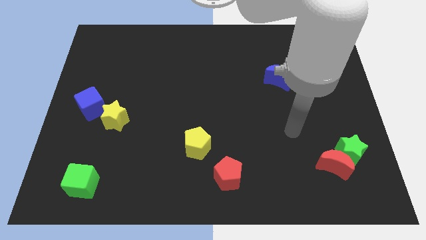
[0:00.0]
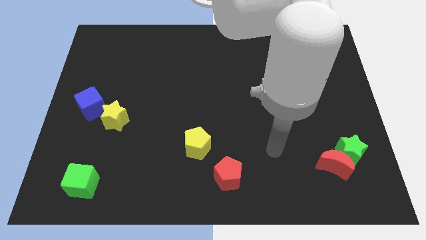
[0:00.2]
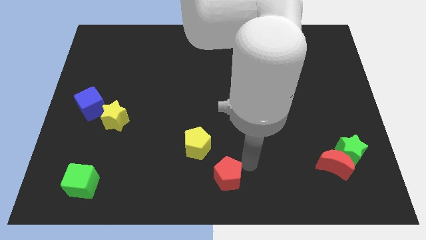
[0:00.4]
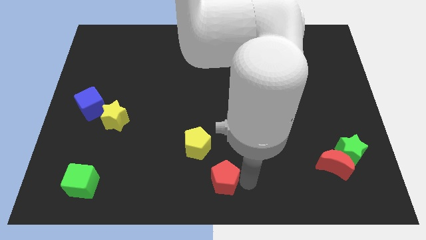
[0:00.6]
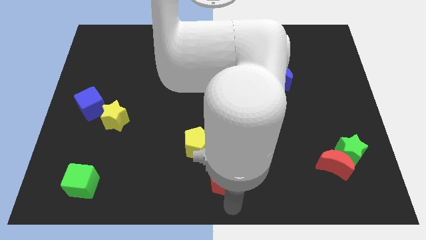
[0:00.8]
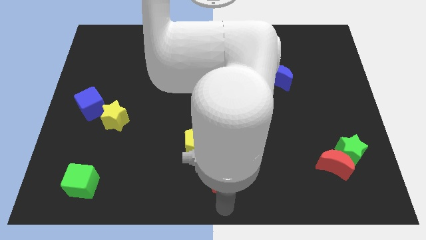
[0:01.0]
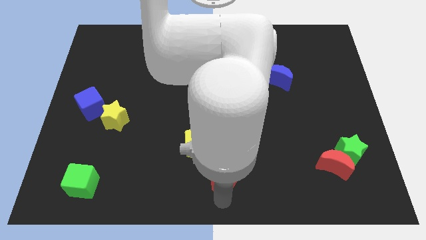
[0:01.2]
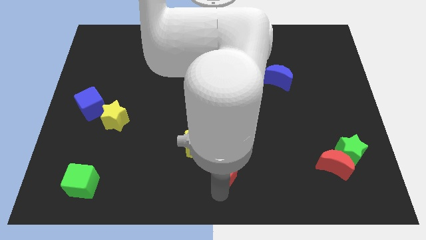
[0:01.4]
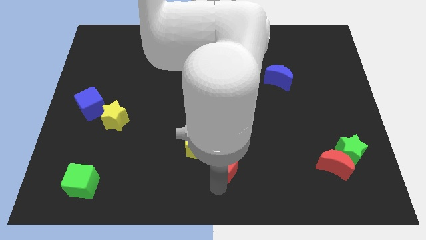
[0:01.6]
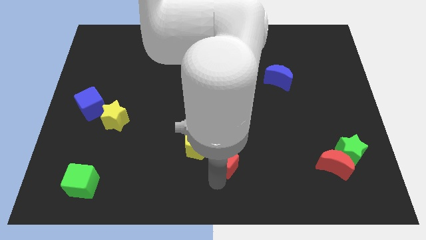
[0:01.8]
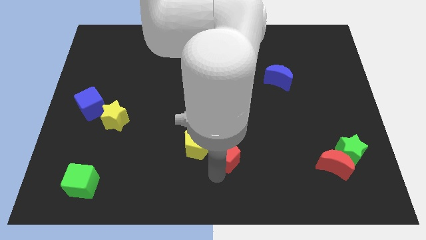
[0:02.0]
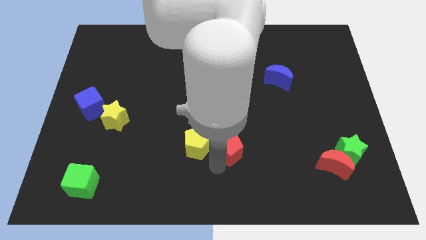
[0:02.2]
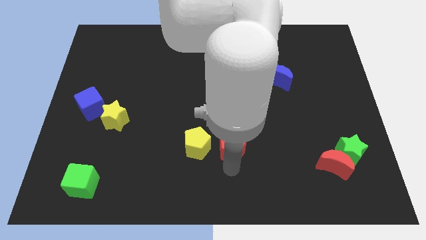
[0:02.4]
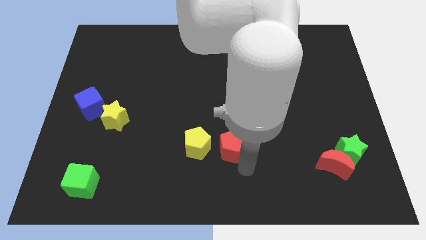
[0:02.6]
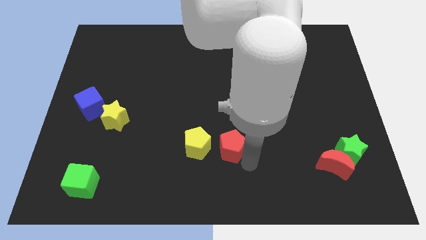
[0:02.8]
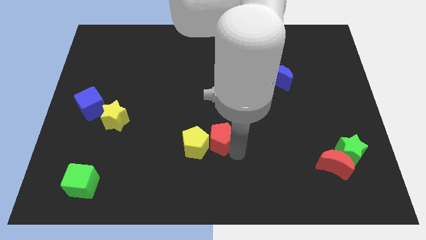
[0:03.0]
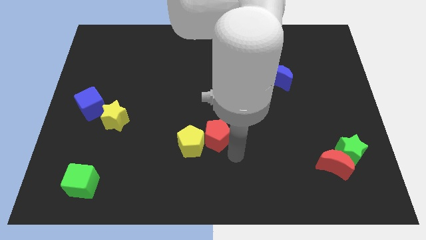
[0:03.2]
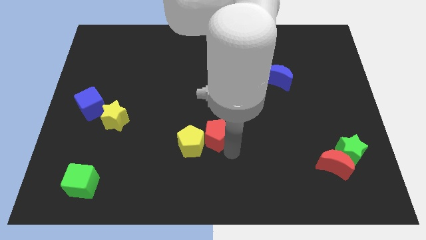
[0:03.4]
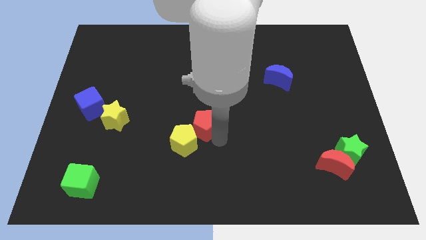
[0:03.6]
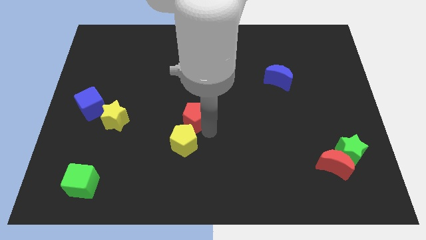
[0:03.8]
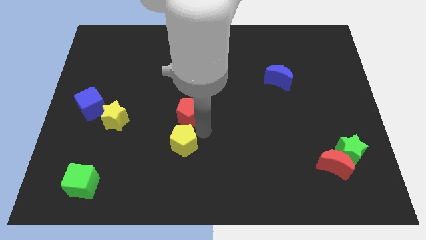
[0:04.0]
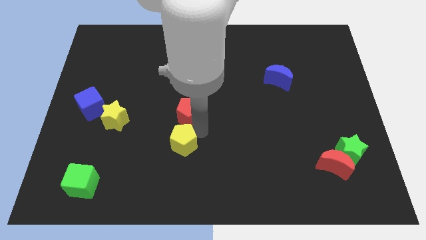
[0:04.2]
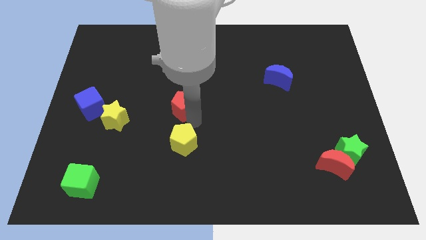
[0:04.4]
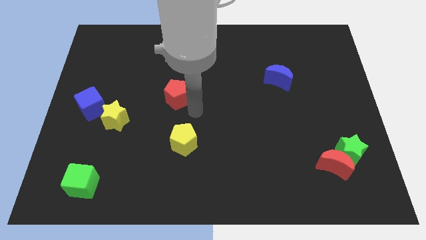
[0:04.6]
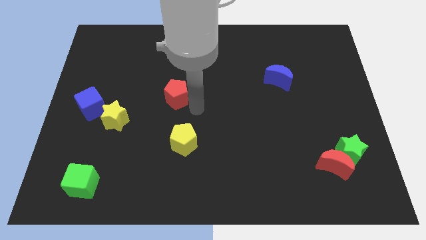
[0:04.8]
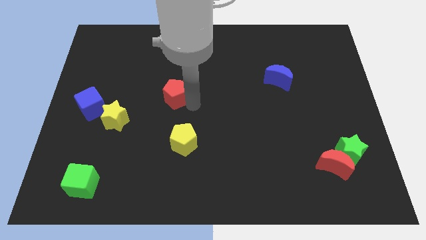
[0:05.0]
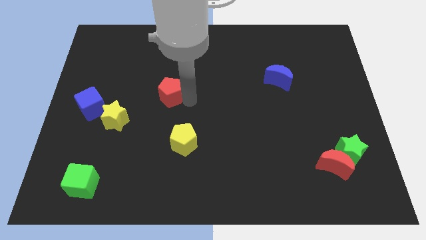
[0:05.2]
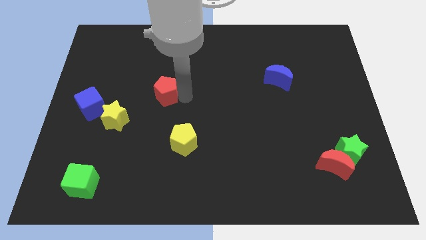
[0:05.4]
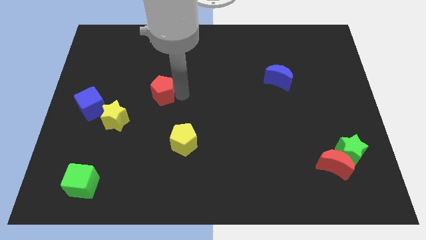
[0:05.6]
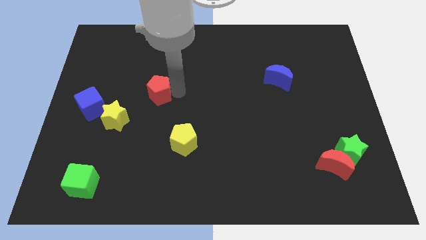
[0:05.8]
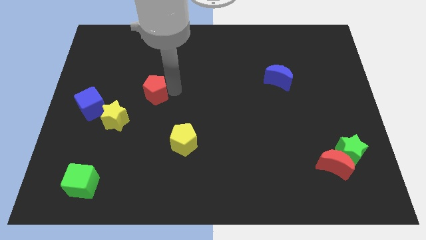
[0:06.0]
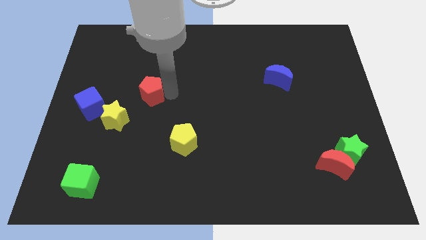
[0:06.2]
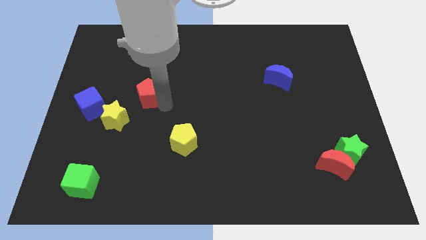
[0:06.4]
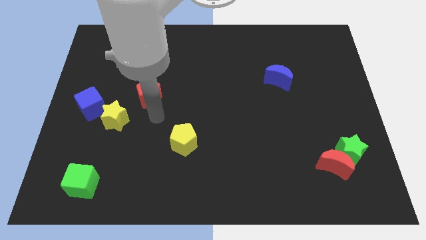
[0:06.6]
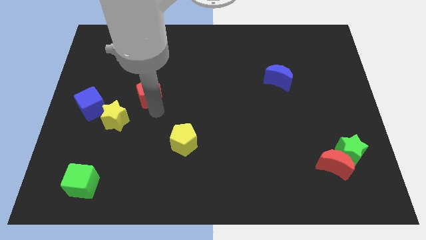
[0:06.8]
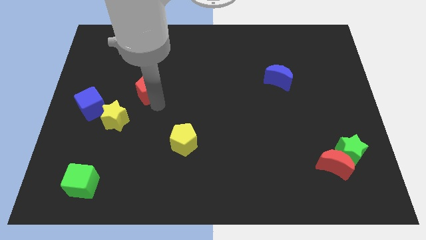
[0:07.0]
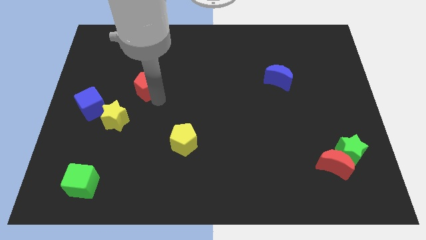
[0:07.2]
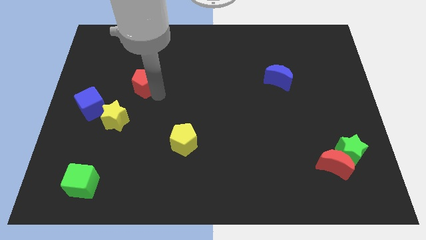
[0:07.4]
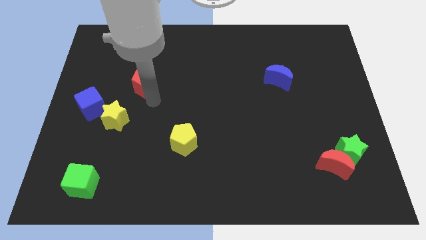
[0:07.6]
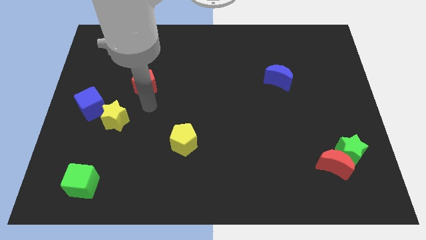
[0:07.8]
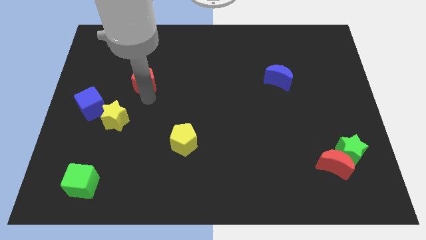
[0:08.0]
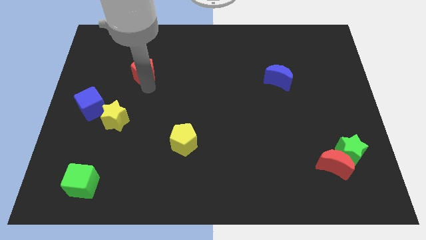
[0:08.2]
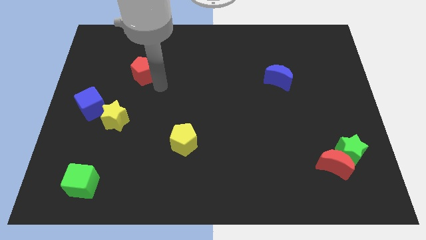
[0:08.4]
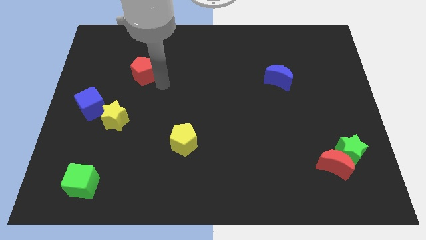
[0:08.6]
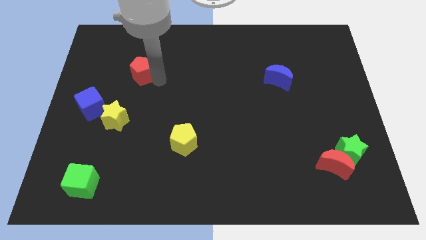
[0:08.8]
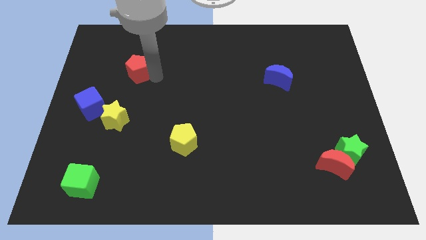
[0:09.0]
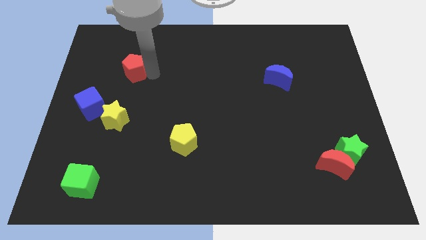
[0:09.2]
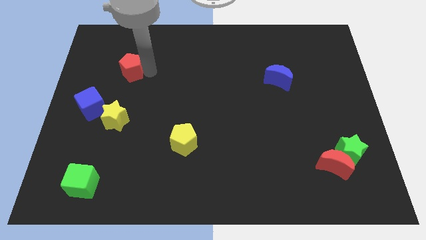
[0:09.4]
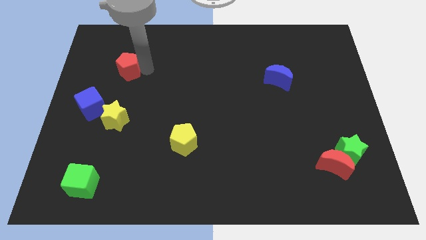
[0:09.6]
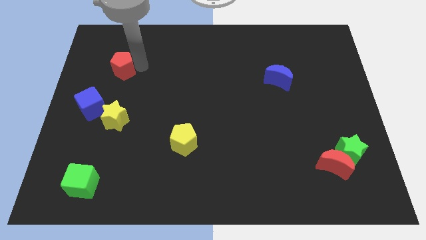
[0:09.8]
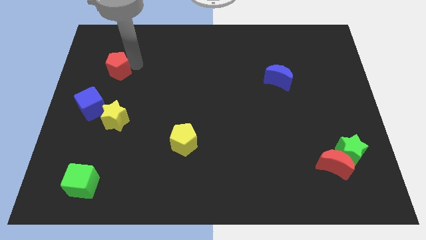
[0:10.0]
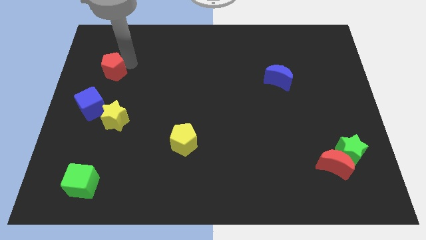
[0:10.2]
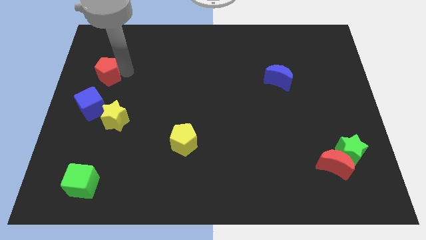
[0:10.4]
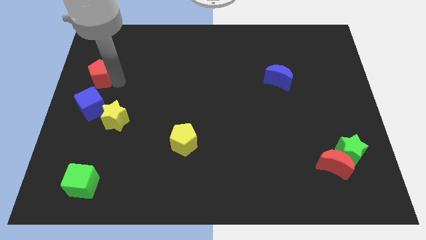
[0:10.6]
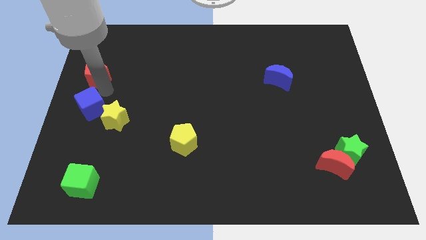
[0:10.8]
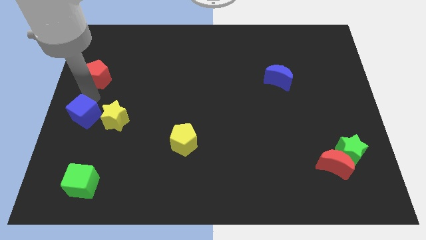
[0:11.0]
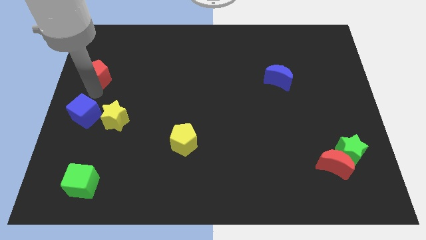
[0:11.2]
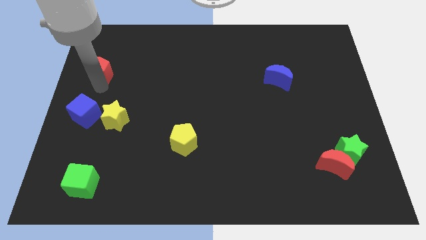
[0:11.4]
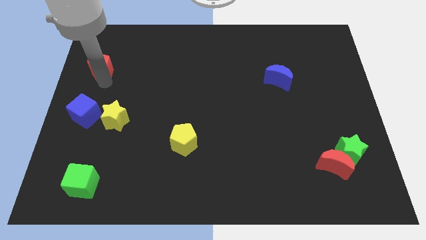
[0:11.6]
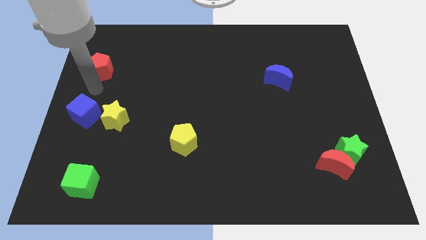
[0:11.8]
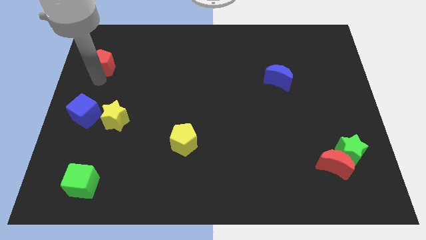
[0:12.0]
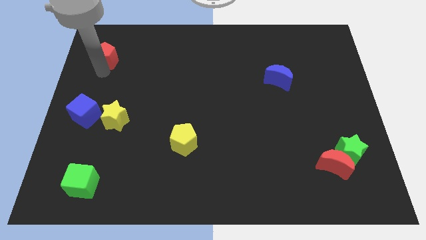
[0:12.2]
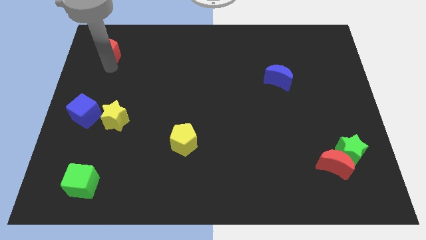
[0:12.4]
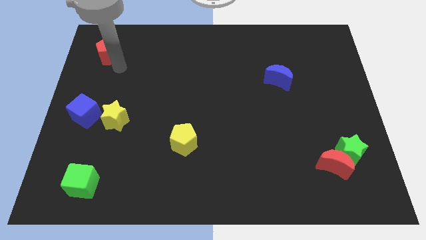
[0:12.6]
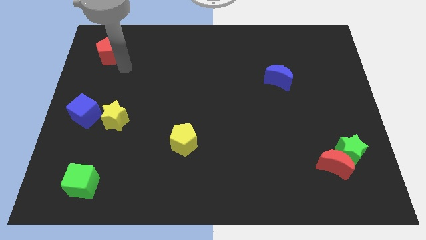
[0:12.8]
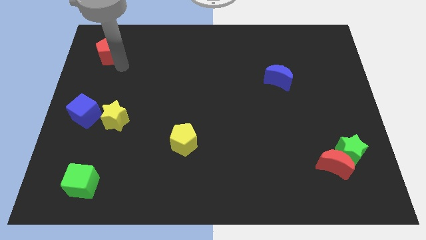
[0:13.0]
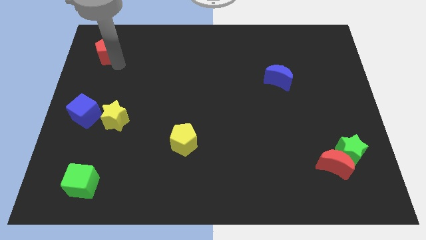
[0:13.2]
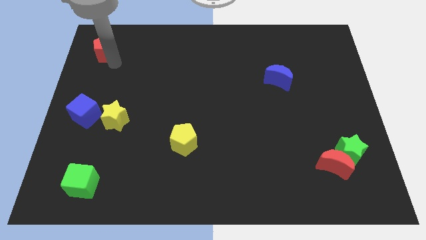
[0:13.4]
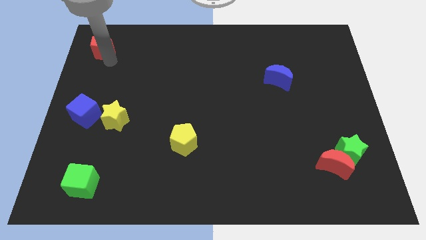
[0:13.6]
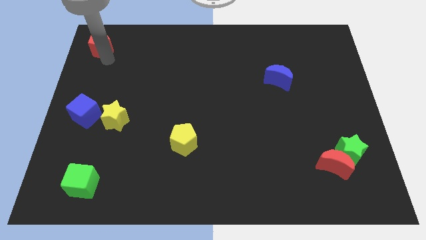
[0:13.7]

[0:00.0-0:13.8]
slide the red pentagon to the top left of the board
